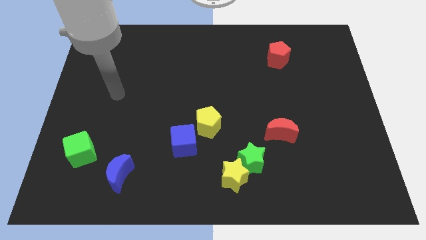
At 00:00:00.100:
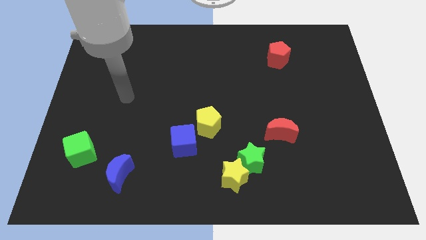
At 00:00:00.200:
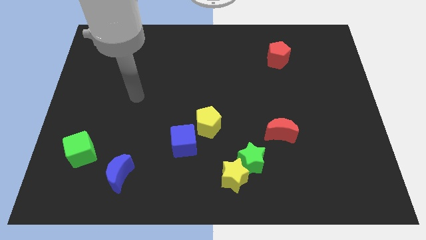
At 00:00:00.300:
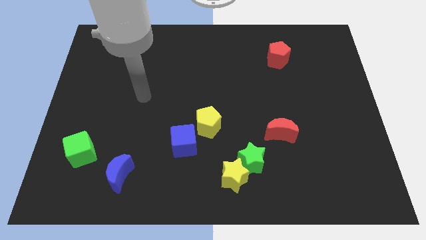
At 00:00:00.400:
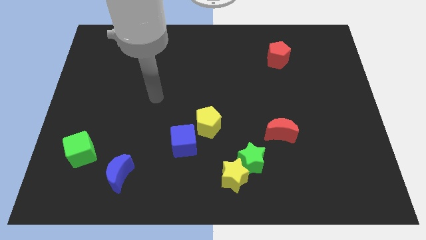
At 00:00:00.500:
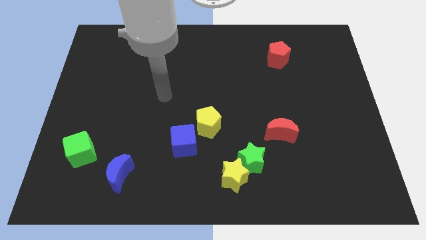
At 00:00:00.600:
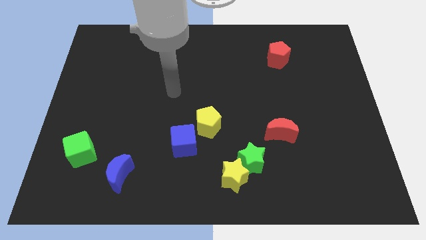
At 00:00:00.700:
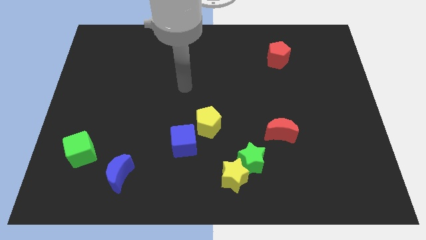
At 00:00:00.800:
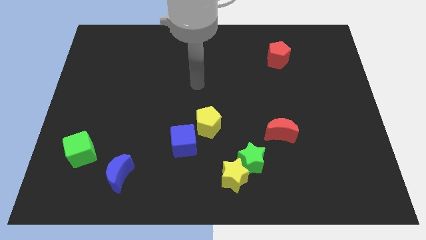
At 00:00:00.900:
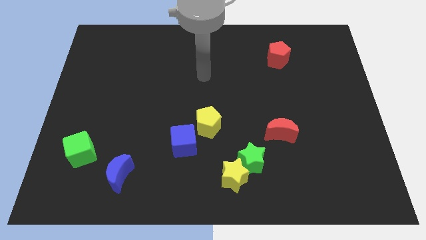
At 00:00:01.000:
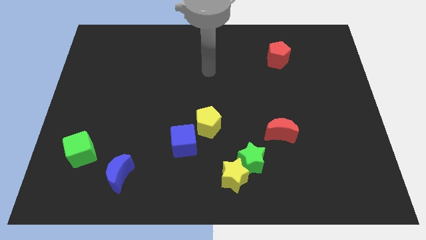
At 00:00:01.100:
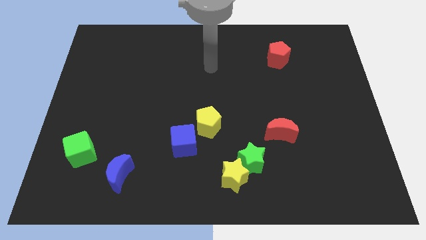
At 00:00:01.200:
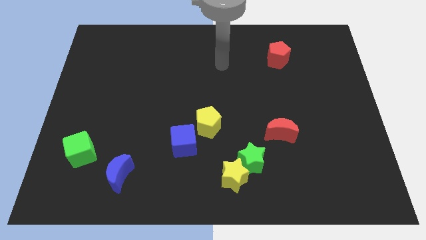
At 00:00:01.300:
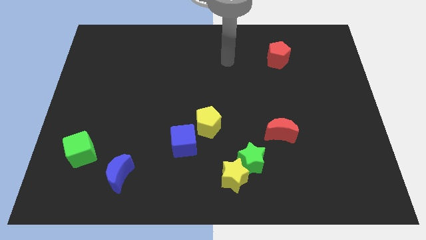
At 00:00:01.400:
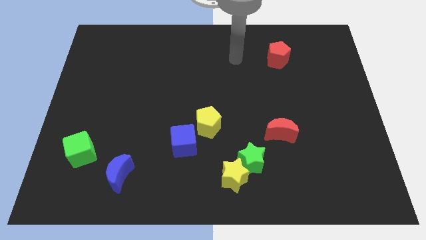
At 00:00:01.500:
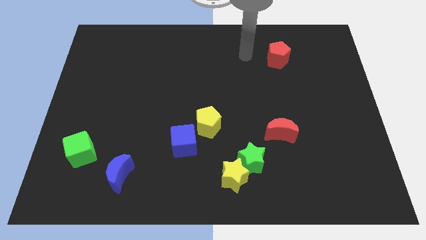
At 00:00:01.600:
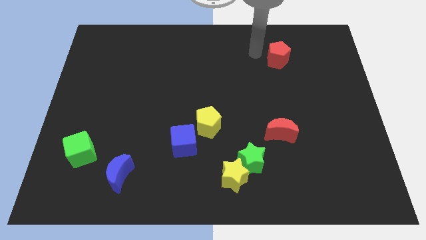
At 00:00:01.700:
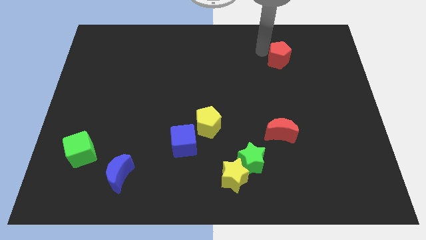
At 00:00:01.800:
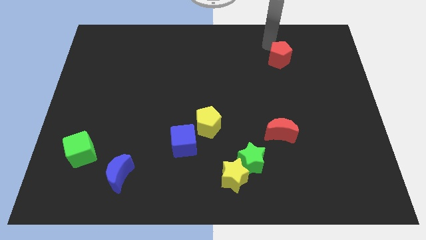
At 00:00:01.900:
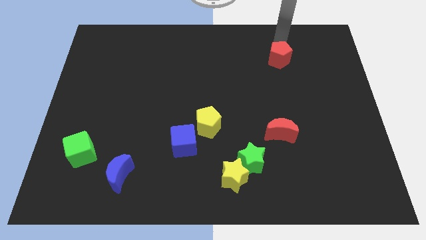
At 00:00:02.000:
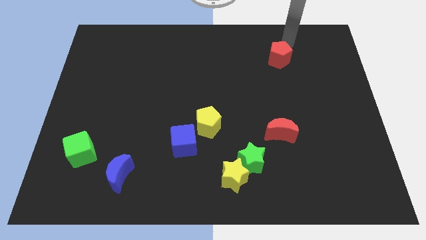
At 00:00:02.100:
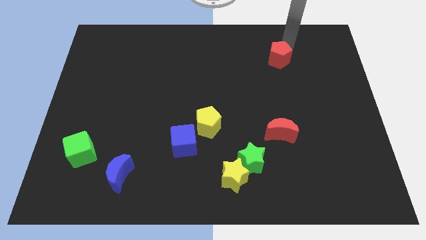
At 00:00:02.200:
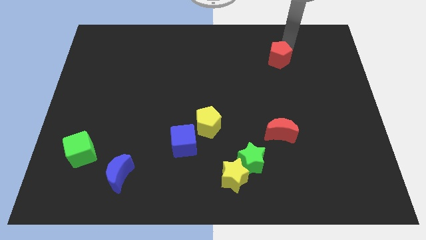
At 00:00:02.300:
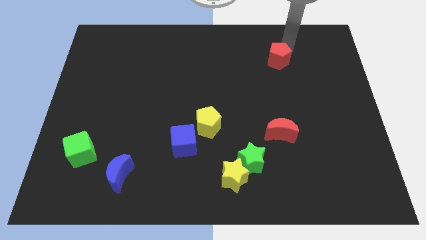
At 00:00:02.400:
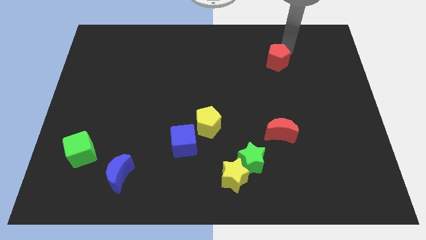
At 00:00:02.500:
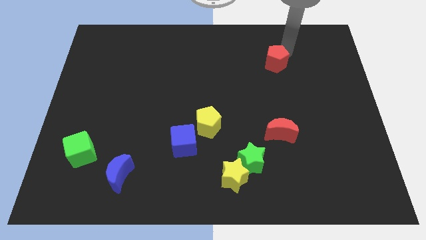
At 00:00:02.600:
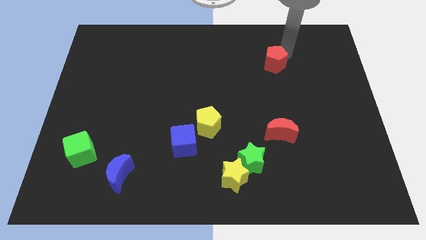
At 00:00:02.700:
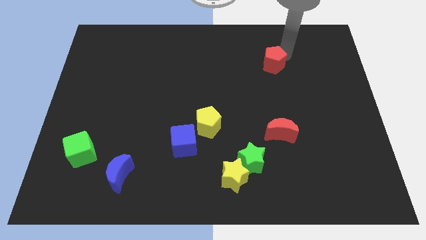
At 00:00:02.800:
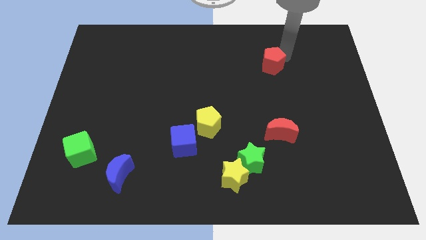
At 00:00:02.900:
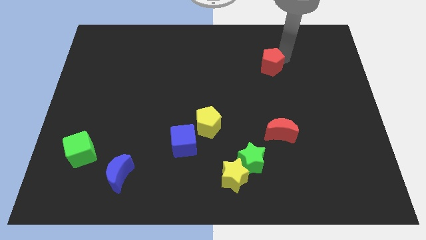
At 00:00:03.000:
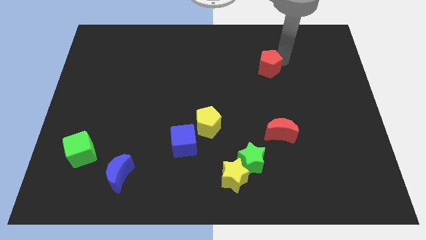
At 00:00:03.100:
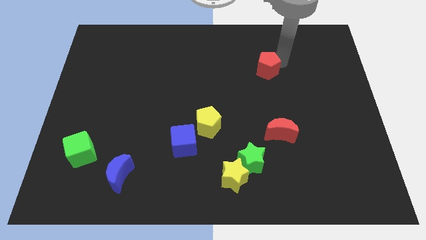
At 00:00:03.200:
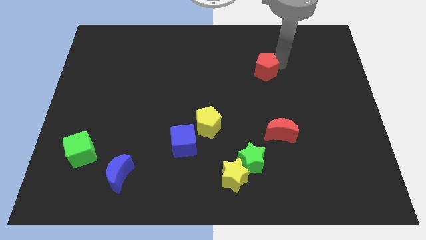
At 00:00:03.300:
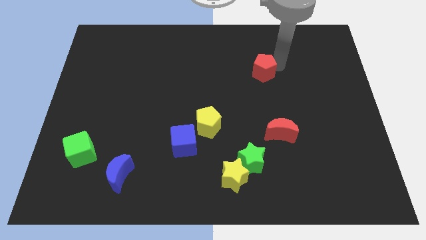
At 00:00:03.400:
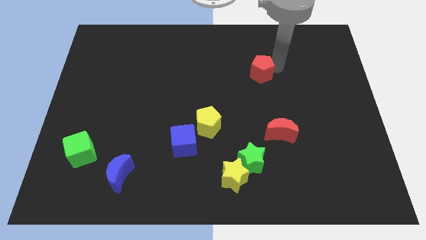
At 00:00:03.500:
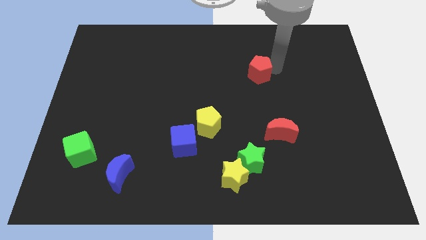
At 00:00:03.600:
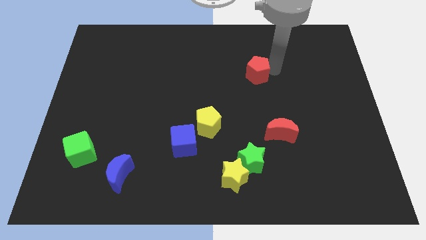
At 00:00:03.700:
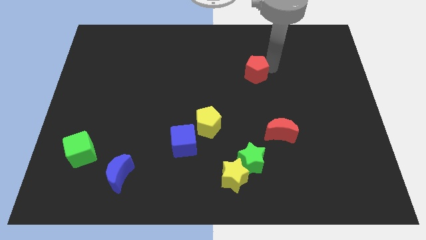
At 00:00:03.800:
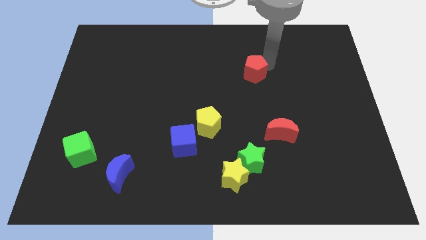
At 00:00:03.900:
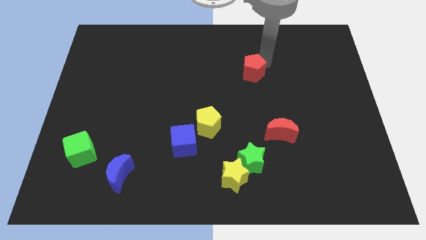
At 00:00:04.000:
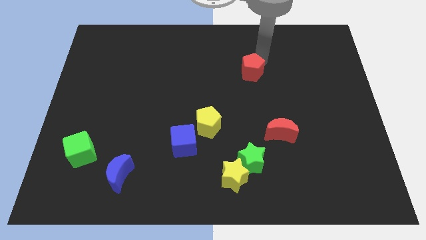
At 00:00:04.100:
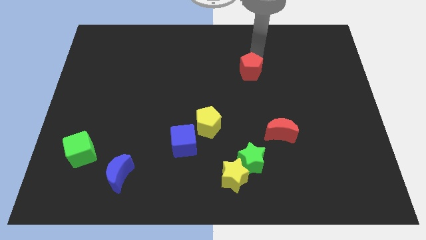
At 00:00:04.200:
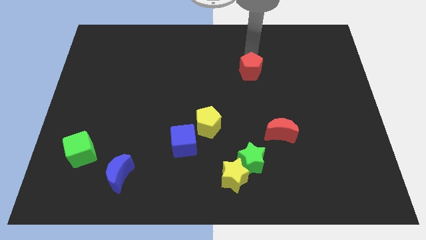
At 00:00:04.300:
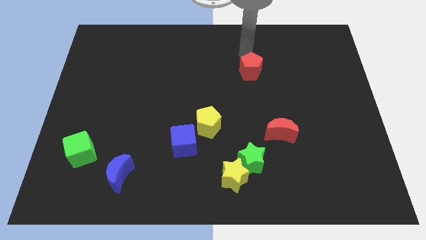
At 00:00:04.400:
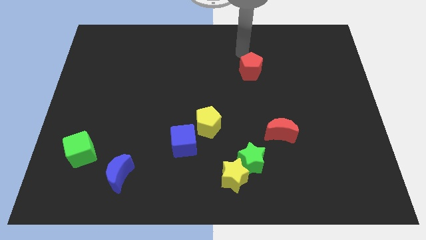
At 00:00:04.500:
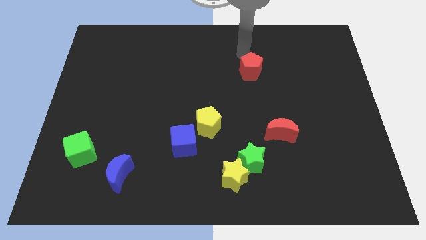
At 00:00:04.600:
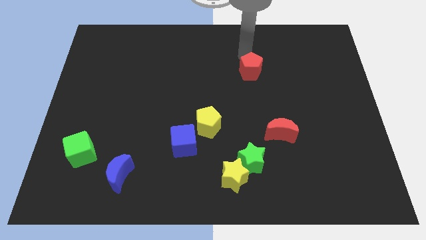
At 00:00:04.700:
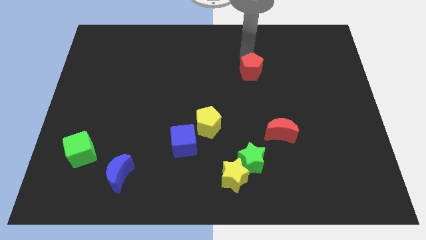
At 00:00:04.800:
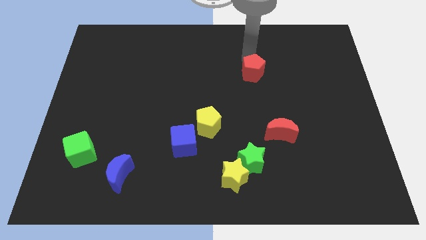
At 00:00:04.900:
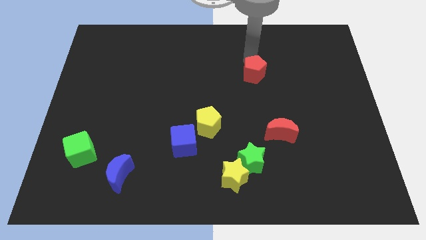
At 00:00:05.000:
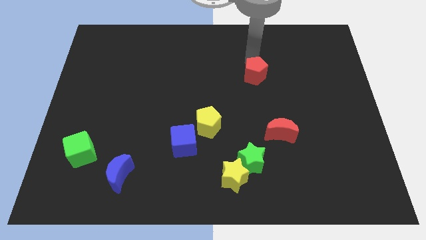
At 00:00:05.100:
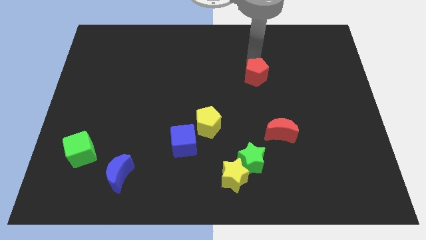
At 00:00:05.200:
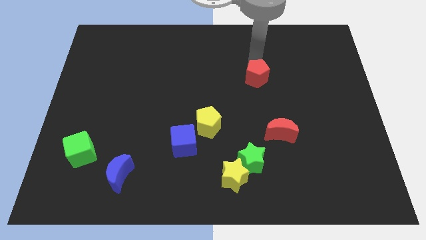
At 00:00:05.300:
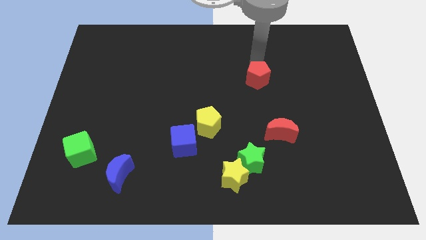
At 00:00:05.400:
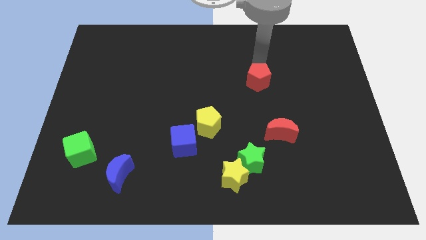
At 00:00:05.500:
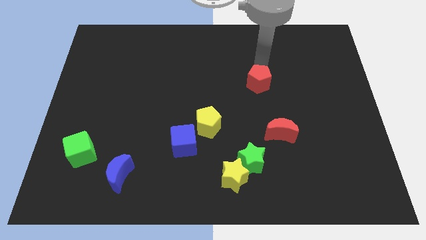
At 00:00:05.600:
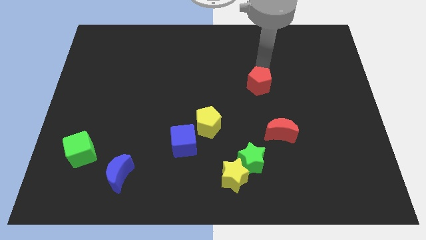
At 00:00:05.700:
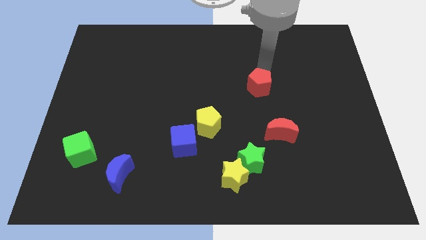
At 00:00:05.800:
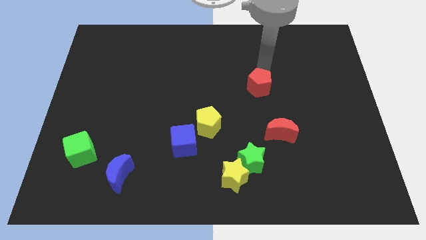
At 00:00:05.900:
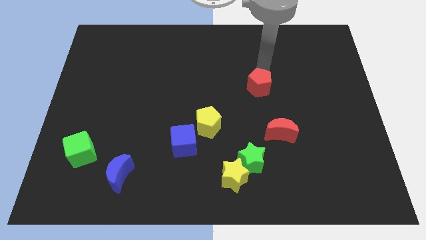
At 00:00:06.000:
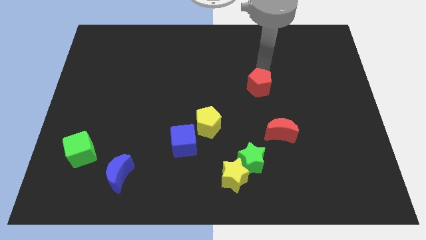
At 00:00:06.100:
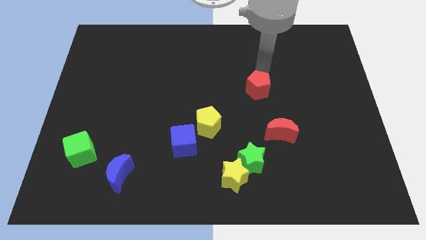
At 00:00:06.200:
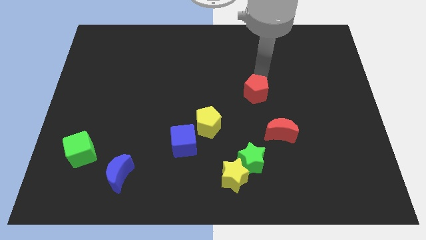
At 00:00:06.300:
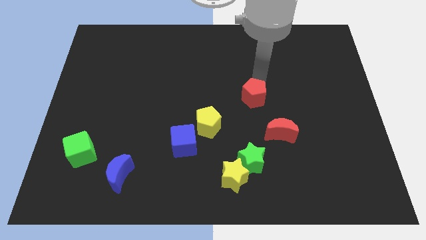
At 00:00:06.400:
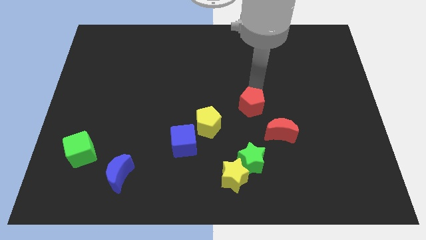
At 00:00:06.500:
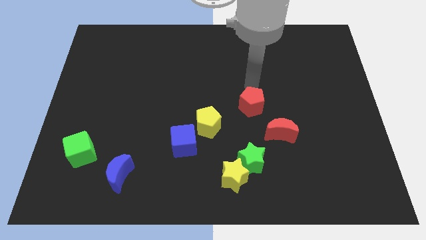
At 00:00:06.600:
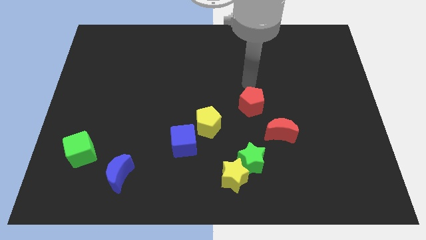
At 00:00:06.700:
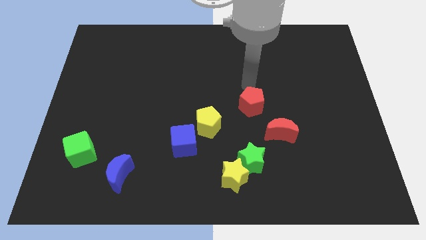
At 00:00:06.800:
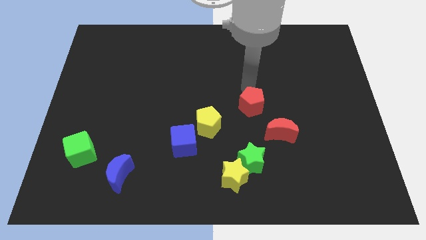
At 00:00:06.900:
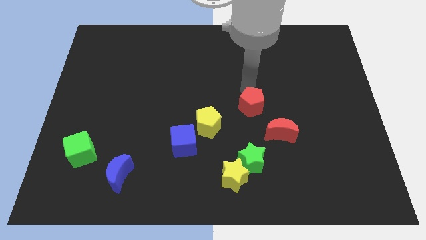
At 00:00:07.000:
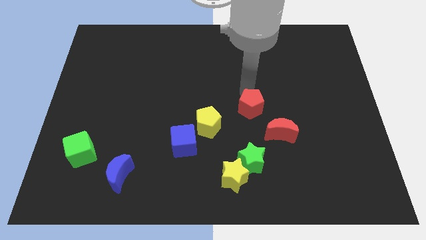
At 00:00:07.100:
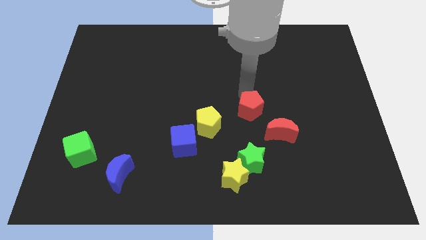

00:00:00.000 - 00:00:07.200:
move the red pentagon right of the yellow pentagon
